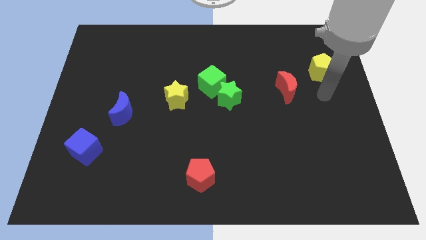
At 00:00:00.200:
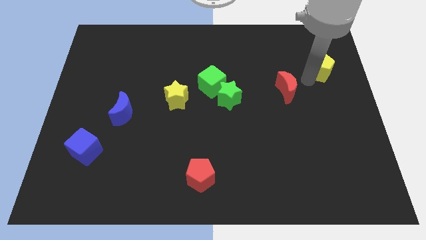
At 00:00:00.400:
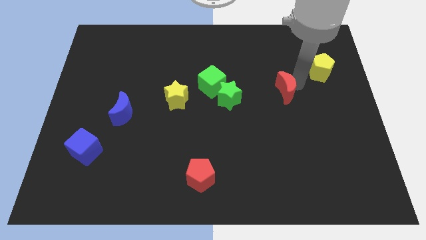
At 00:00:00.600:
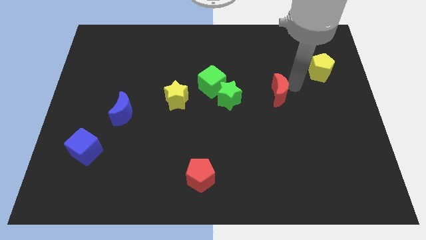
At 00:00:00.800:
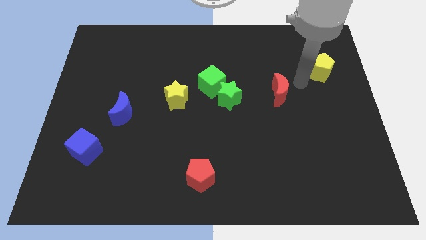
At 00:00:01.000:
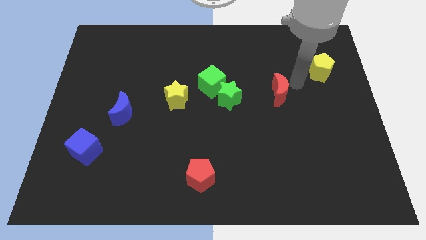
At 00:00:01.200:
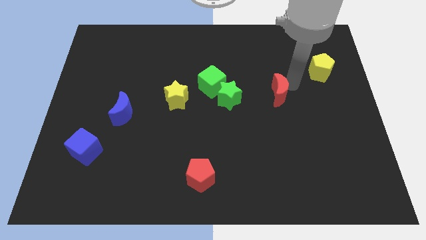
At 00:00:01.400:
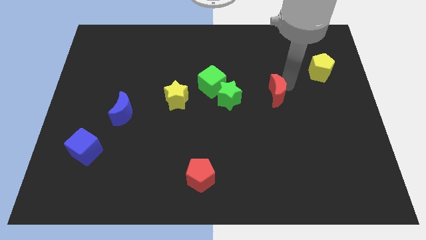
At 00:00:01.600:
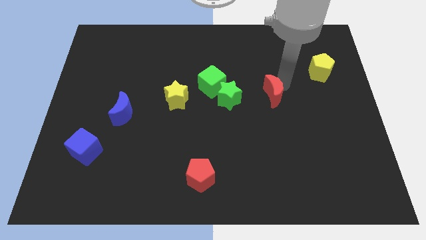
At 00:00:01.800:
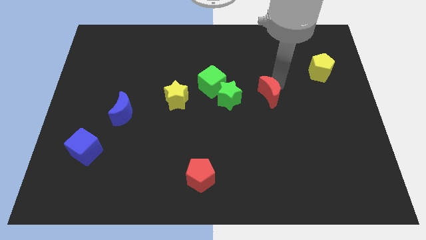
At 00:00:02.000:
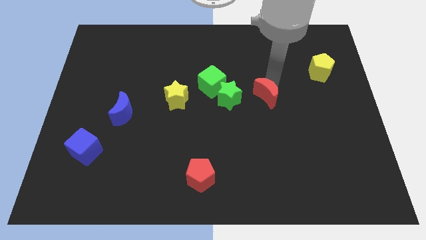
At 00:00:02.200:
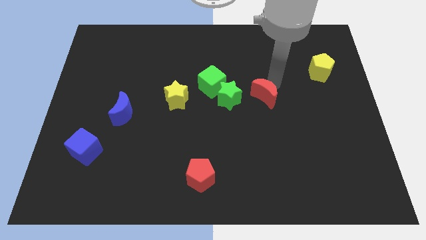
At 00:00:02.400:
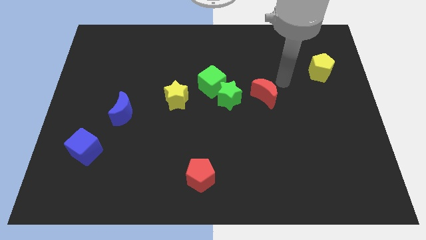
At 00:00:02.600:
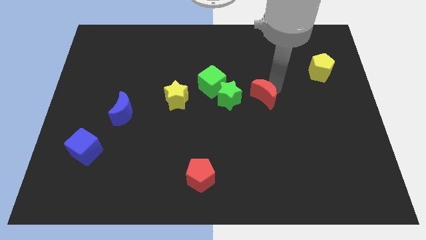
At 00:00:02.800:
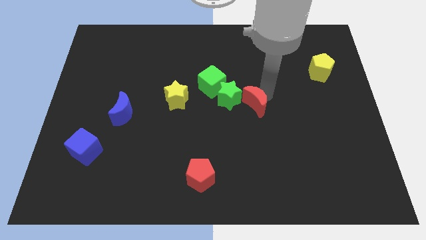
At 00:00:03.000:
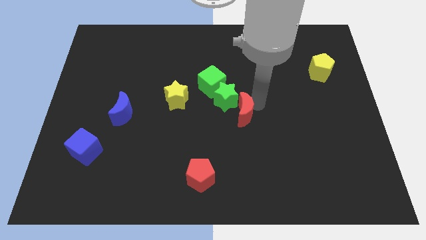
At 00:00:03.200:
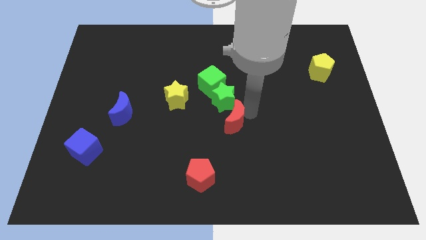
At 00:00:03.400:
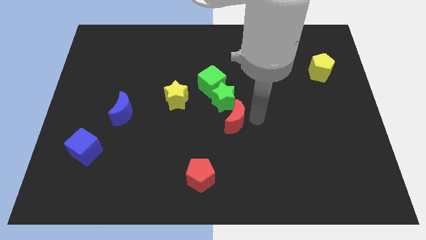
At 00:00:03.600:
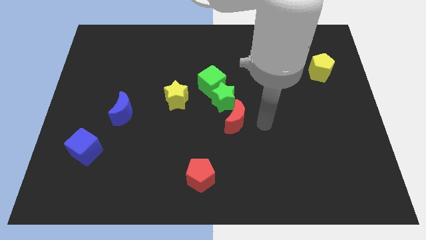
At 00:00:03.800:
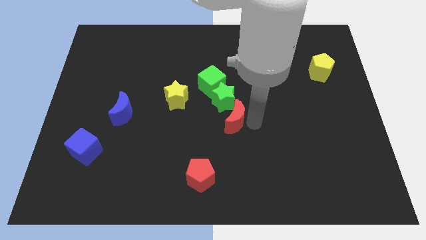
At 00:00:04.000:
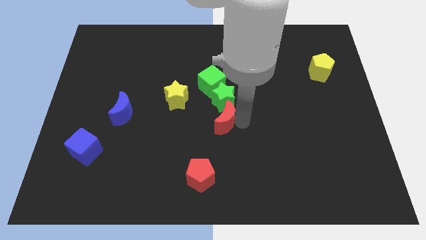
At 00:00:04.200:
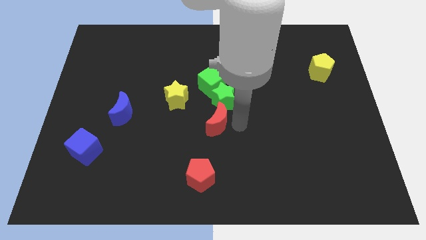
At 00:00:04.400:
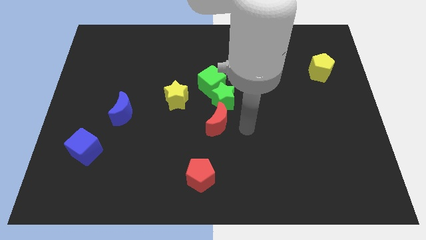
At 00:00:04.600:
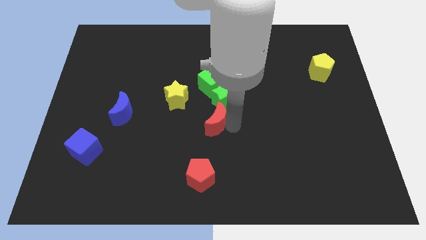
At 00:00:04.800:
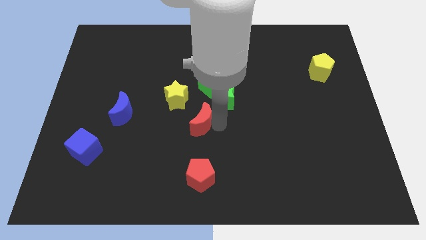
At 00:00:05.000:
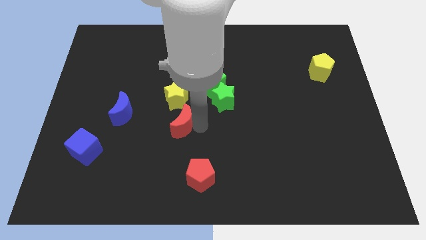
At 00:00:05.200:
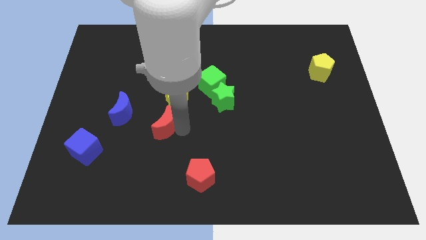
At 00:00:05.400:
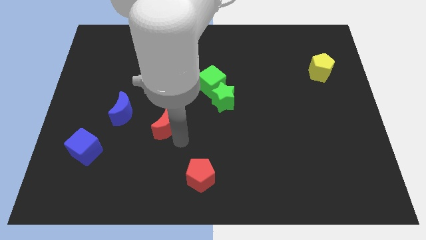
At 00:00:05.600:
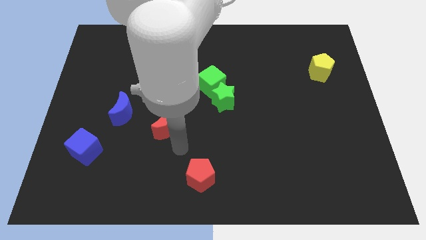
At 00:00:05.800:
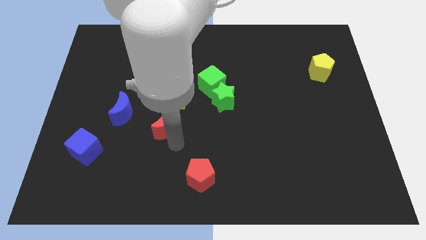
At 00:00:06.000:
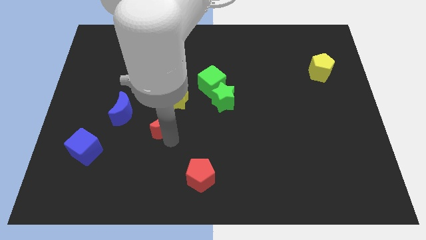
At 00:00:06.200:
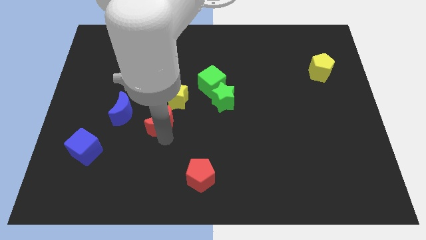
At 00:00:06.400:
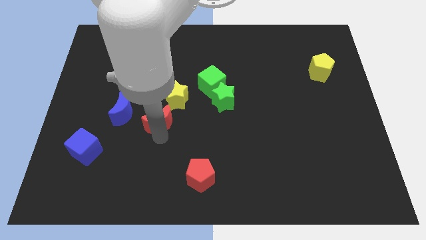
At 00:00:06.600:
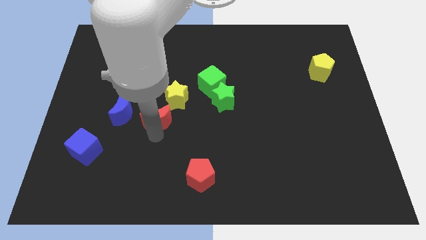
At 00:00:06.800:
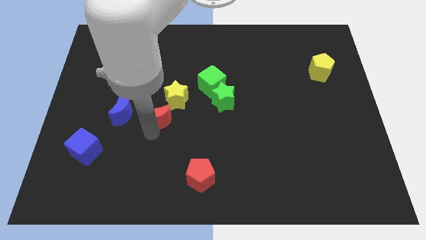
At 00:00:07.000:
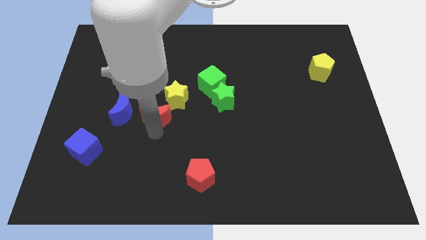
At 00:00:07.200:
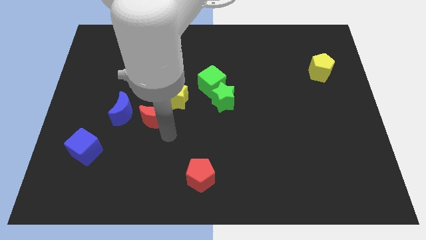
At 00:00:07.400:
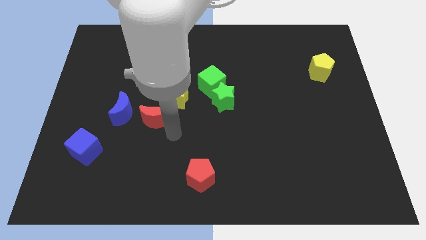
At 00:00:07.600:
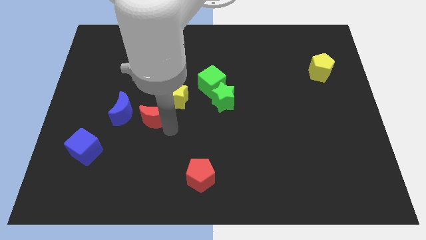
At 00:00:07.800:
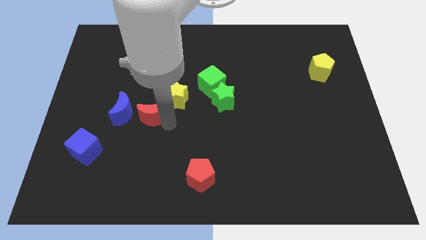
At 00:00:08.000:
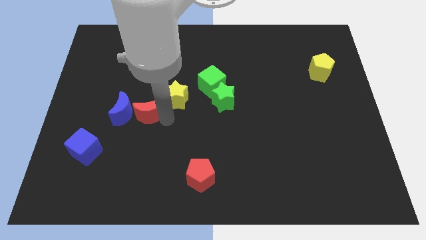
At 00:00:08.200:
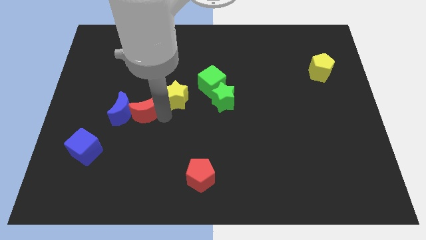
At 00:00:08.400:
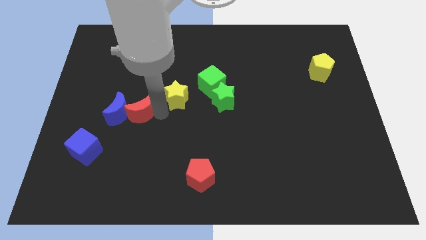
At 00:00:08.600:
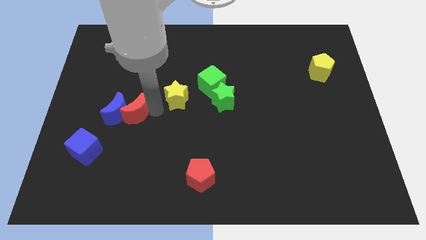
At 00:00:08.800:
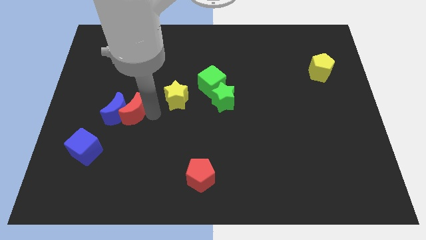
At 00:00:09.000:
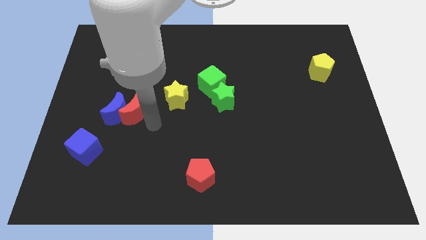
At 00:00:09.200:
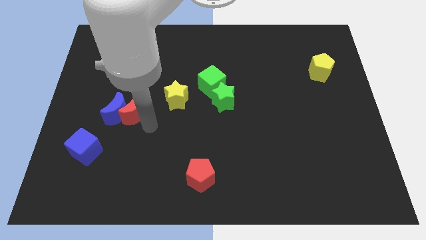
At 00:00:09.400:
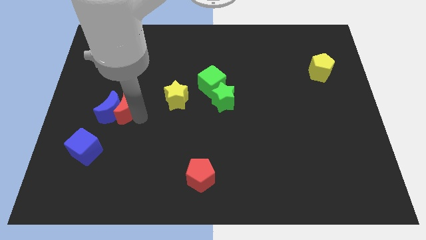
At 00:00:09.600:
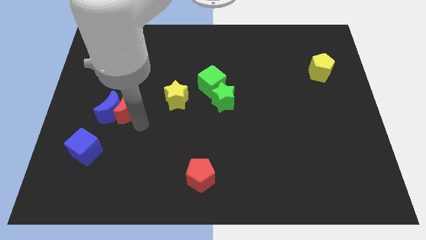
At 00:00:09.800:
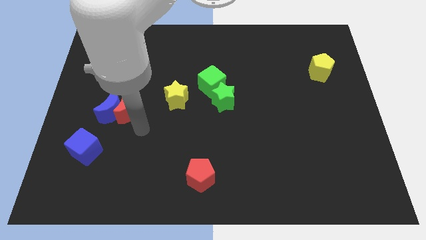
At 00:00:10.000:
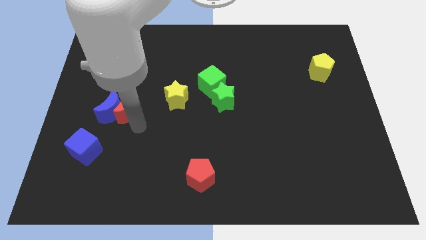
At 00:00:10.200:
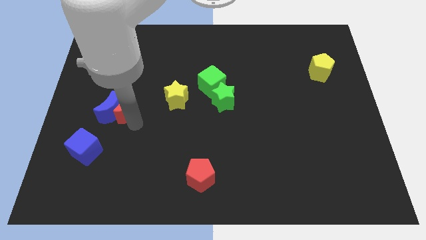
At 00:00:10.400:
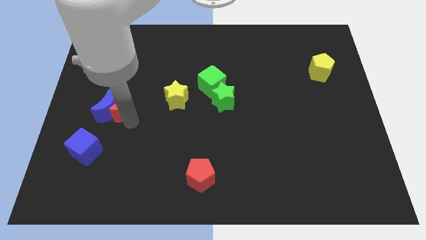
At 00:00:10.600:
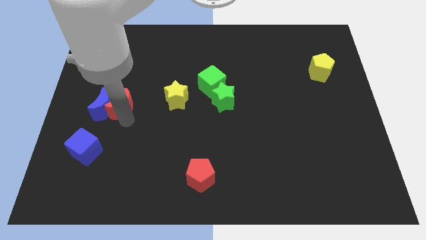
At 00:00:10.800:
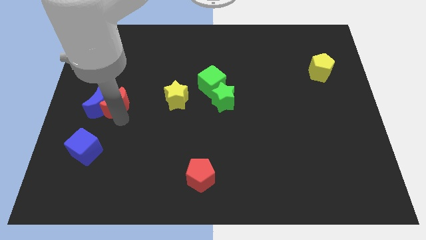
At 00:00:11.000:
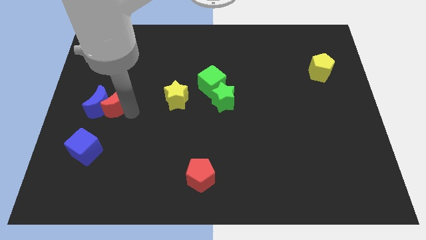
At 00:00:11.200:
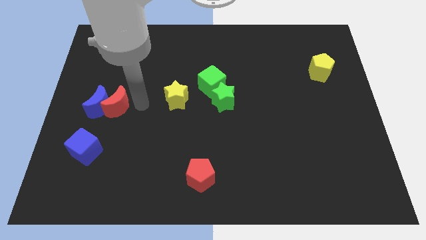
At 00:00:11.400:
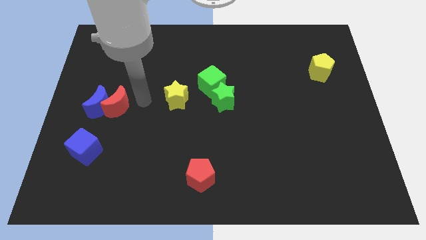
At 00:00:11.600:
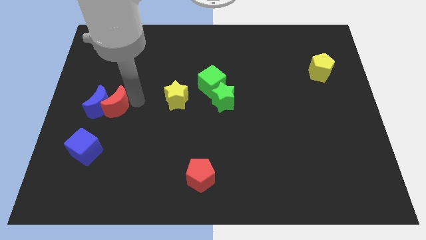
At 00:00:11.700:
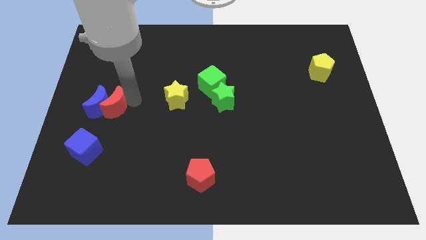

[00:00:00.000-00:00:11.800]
move the red moon to the top side of the blue cube

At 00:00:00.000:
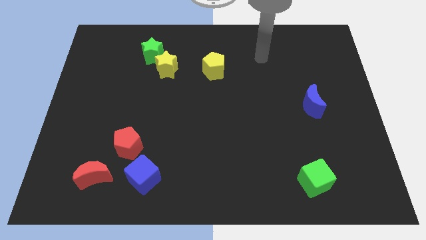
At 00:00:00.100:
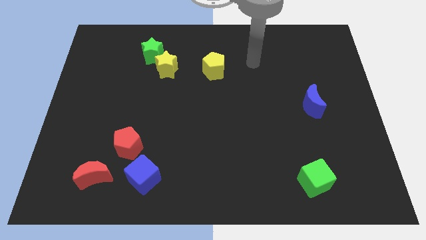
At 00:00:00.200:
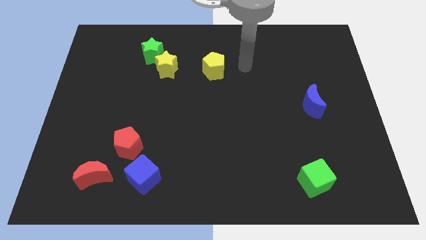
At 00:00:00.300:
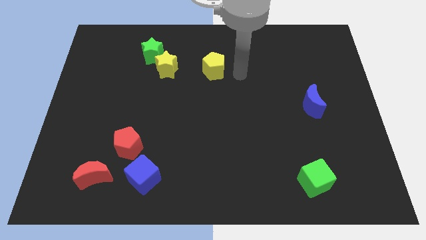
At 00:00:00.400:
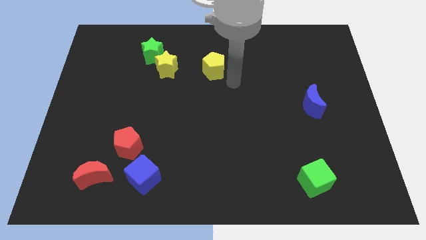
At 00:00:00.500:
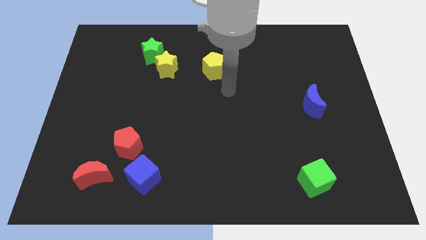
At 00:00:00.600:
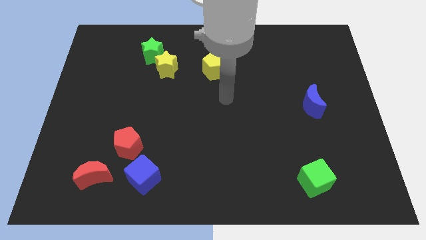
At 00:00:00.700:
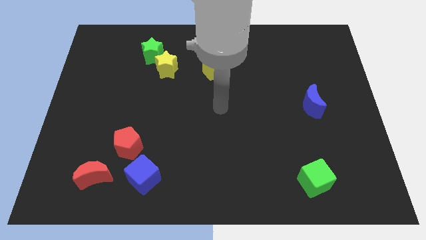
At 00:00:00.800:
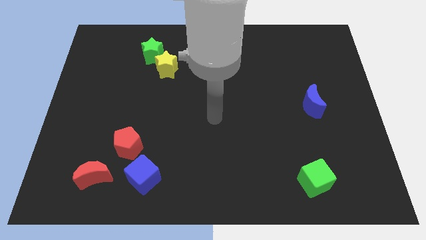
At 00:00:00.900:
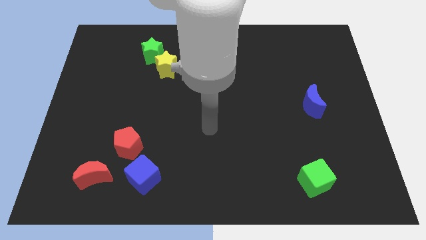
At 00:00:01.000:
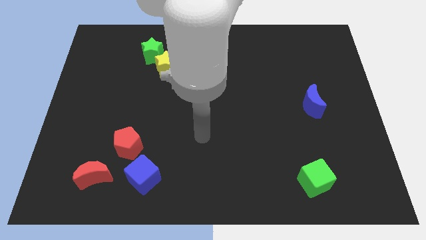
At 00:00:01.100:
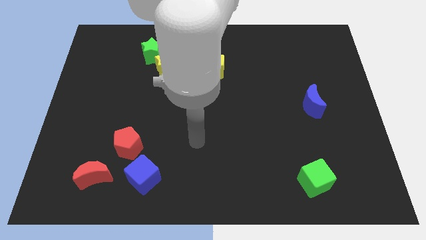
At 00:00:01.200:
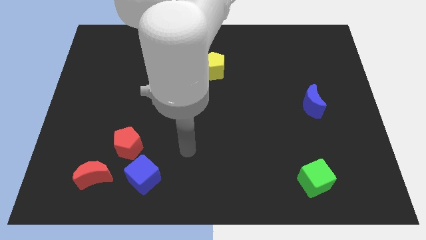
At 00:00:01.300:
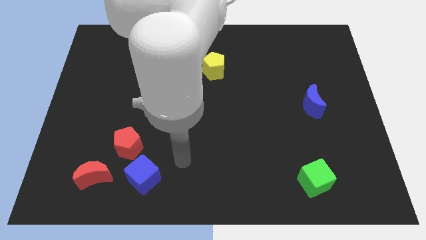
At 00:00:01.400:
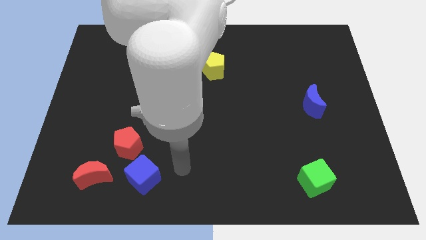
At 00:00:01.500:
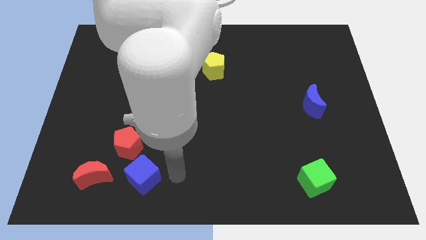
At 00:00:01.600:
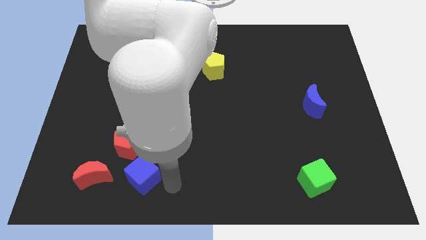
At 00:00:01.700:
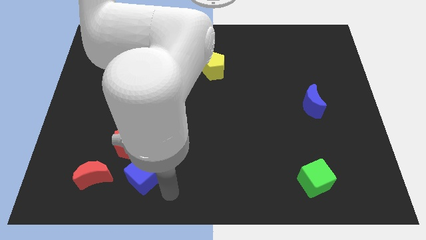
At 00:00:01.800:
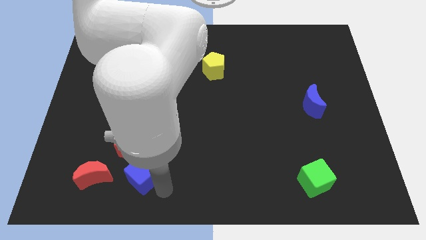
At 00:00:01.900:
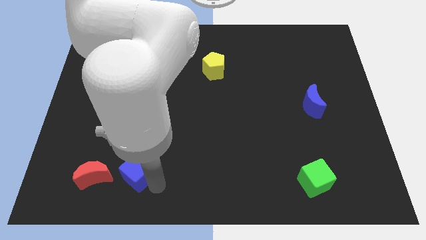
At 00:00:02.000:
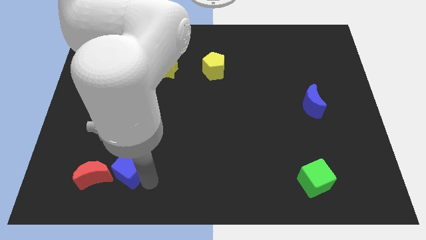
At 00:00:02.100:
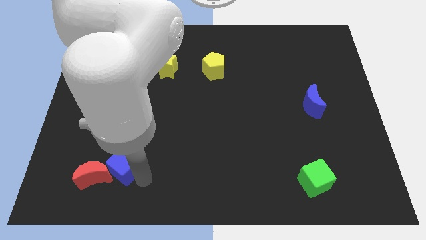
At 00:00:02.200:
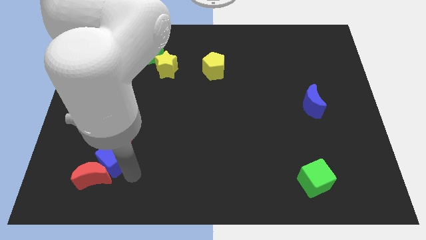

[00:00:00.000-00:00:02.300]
put the blue cube above the red moon
